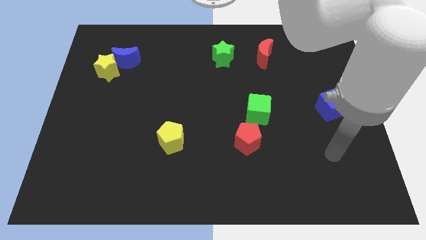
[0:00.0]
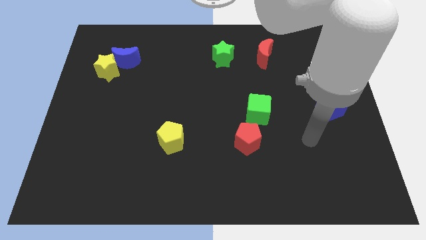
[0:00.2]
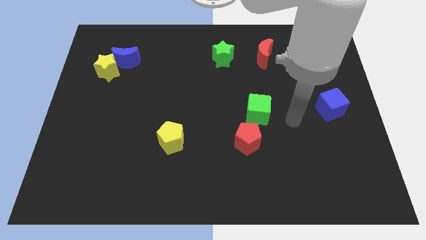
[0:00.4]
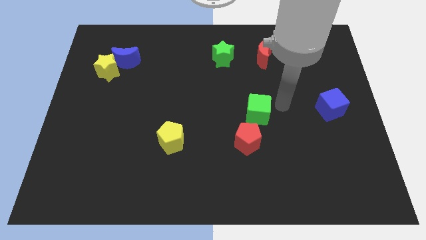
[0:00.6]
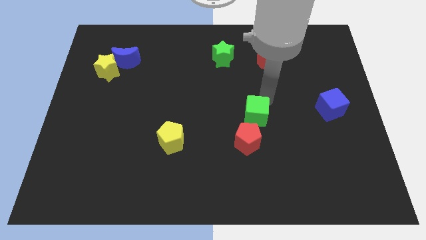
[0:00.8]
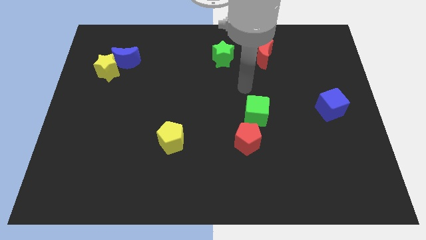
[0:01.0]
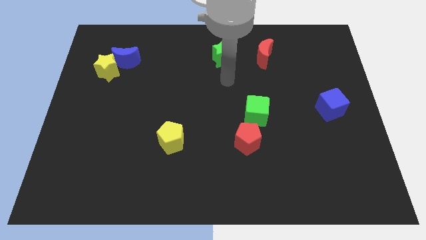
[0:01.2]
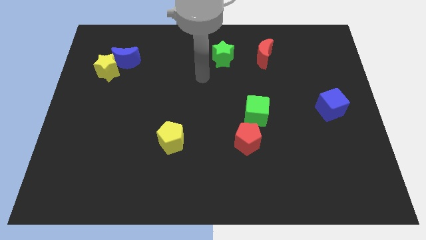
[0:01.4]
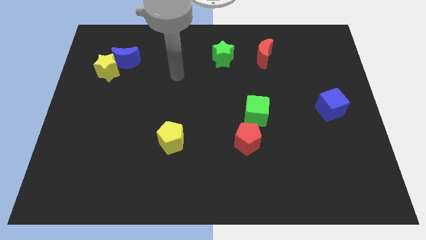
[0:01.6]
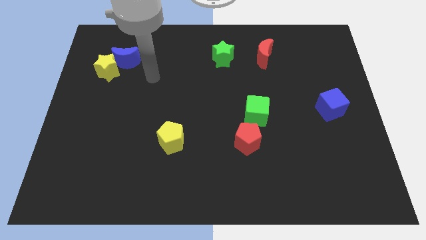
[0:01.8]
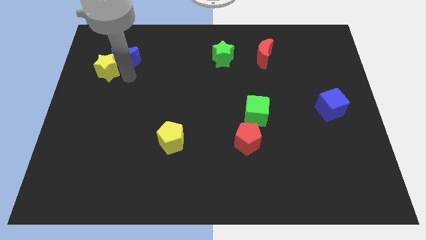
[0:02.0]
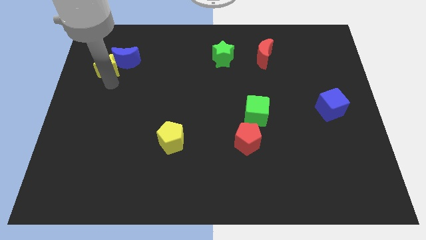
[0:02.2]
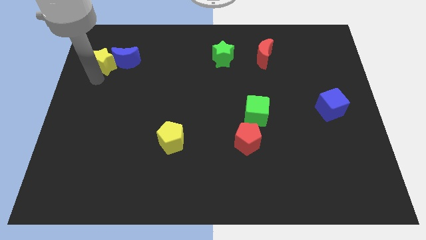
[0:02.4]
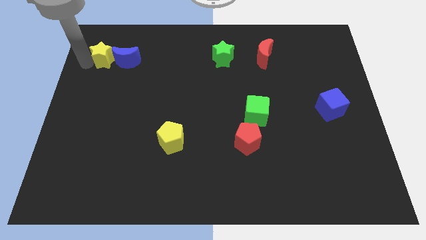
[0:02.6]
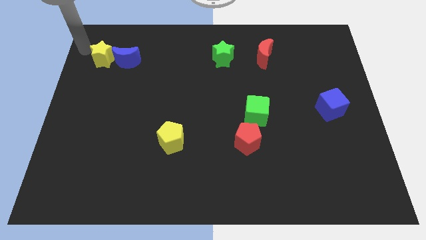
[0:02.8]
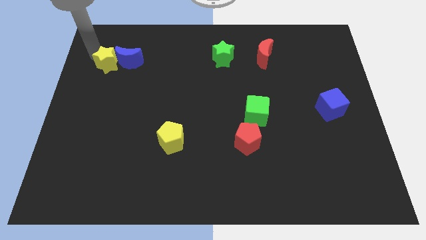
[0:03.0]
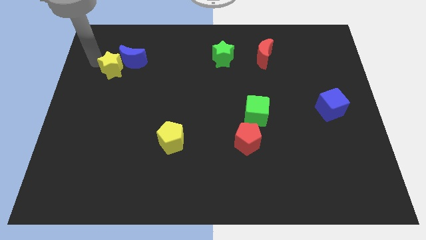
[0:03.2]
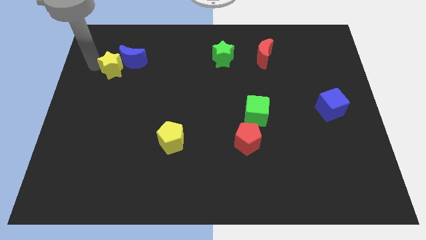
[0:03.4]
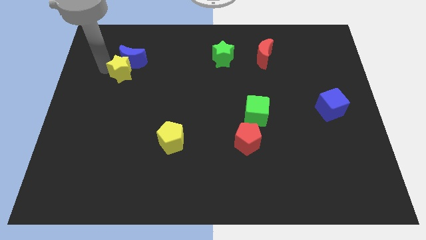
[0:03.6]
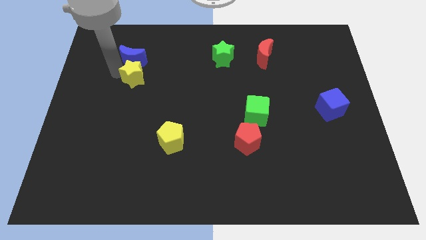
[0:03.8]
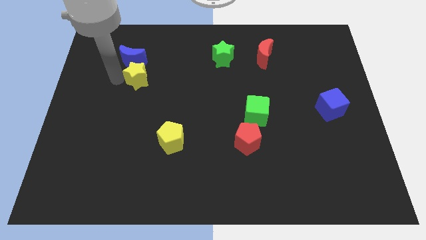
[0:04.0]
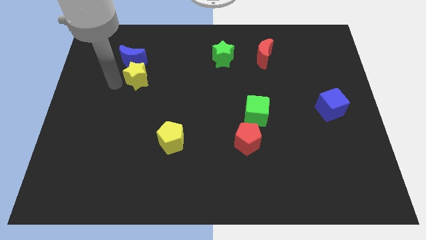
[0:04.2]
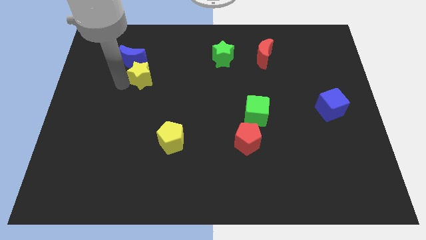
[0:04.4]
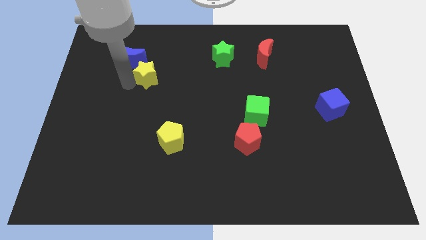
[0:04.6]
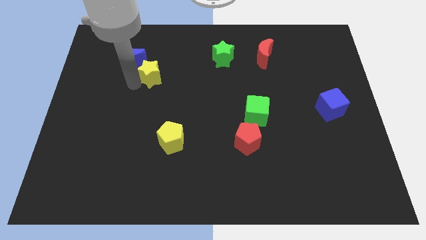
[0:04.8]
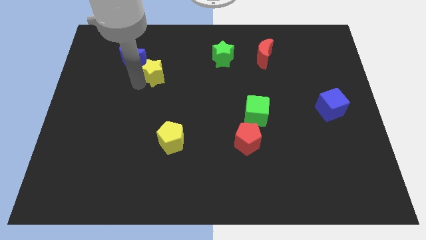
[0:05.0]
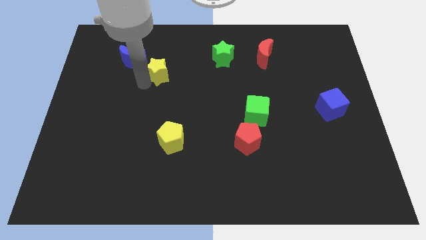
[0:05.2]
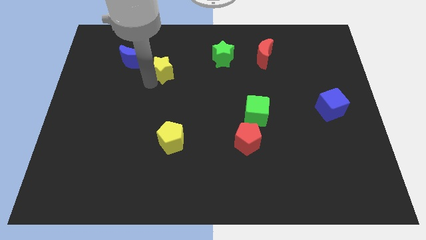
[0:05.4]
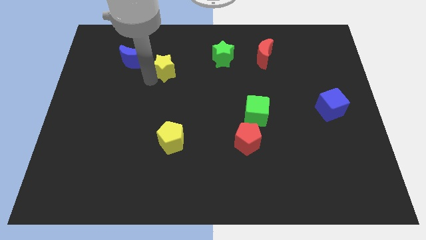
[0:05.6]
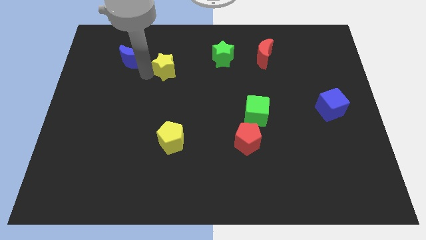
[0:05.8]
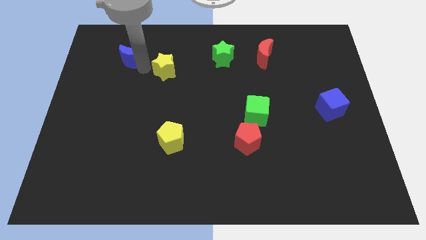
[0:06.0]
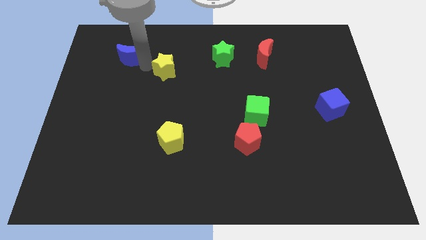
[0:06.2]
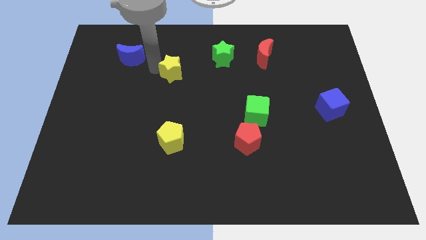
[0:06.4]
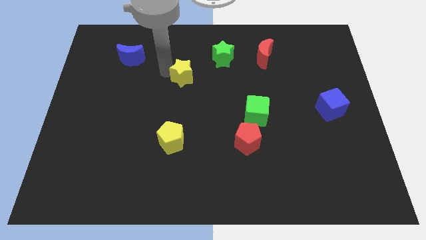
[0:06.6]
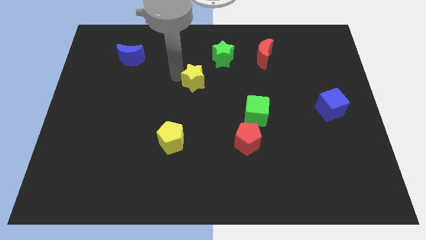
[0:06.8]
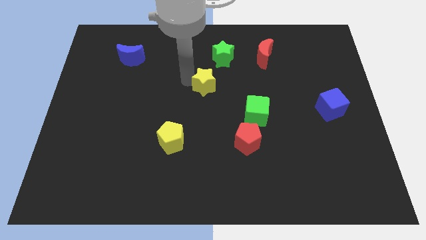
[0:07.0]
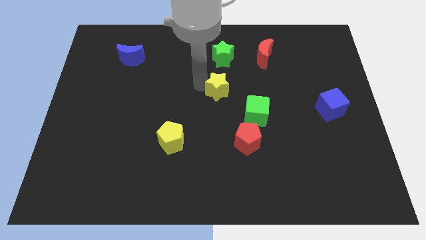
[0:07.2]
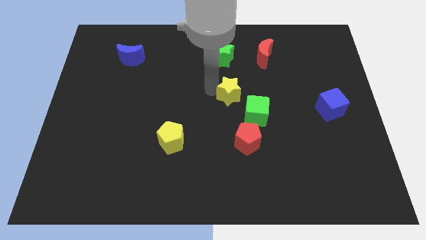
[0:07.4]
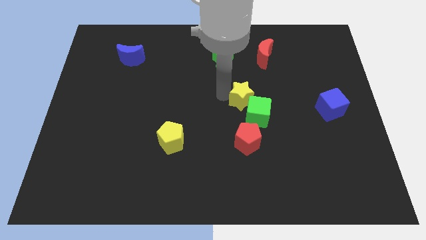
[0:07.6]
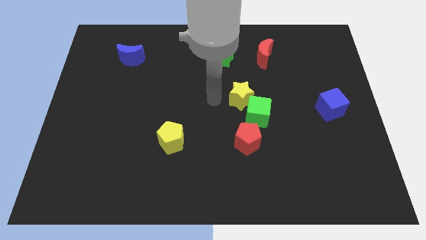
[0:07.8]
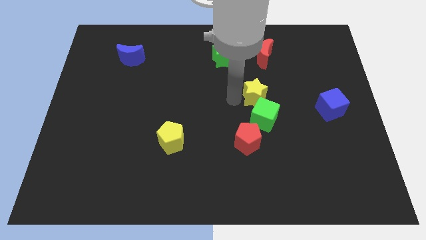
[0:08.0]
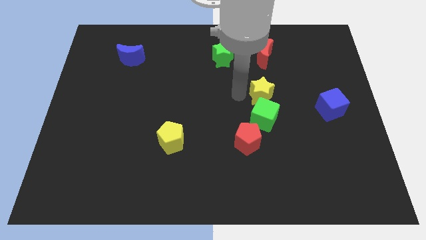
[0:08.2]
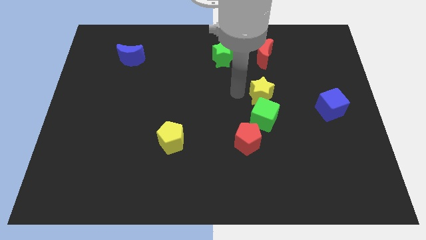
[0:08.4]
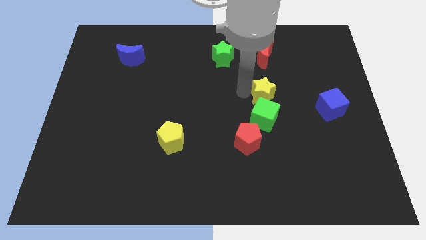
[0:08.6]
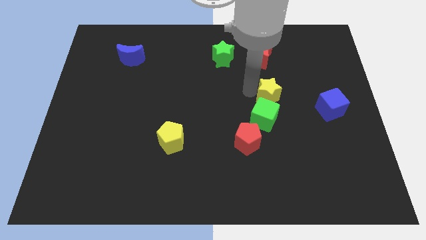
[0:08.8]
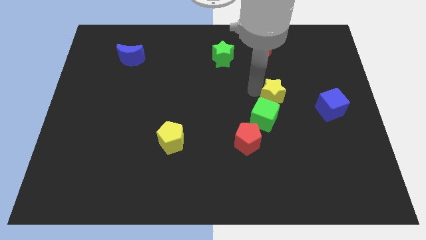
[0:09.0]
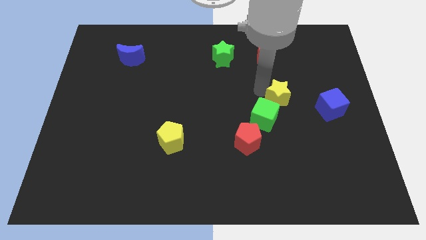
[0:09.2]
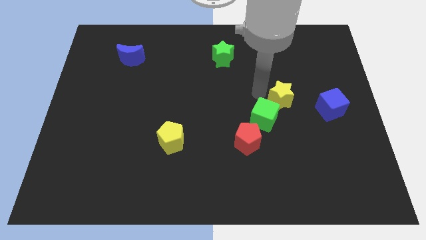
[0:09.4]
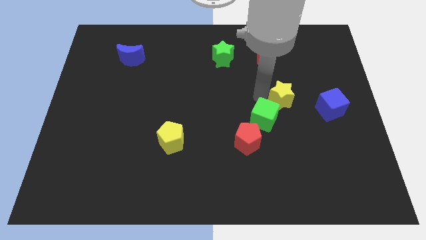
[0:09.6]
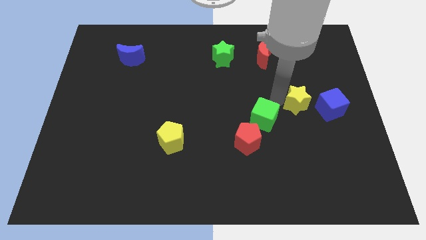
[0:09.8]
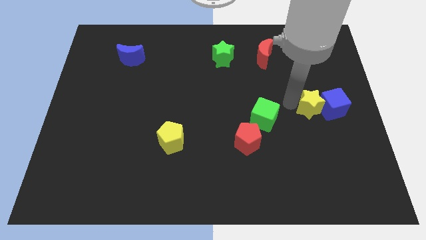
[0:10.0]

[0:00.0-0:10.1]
move the yellow star close to the blue cube

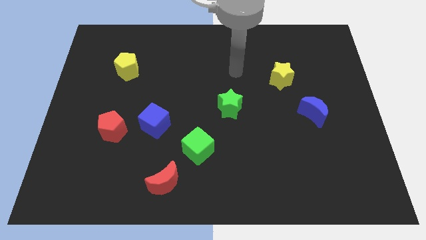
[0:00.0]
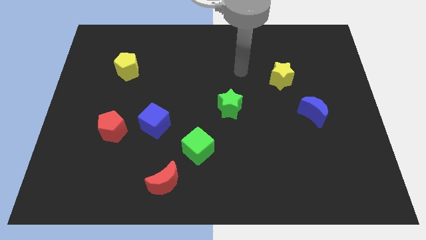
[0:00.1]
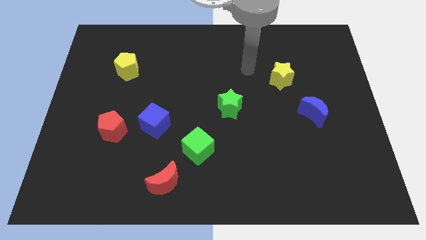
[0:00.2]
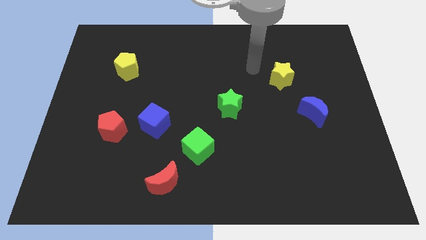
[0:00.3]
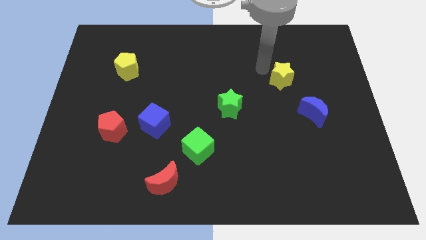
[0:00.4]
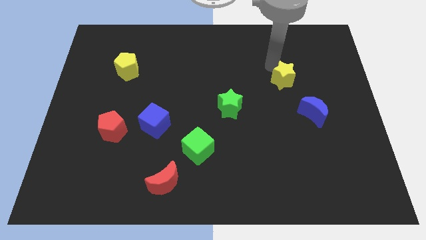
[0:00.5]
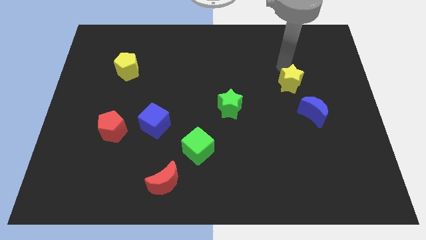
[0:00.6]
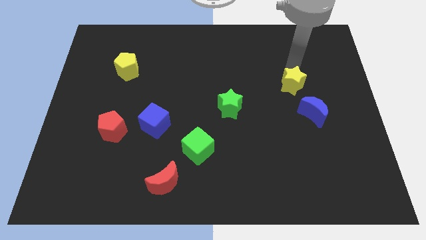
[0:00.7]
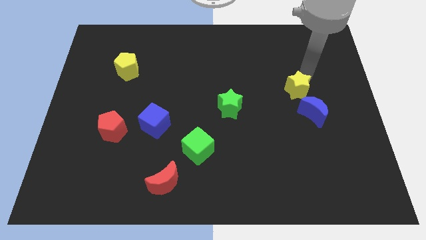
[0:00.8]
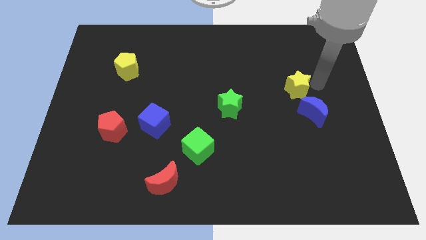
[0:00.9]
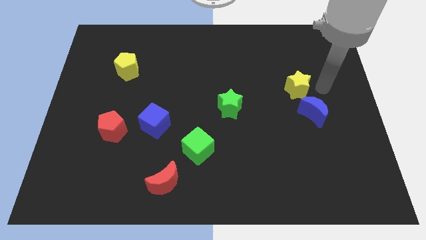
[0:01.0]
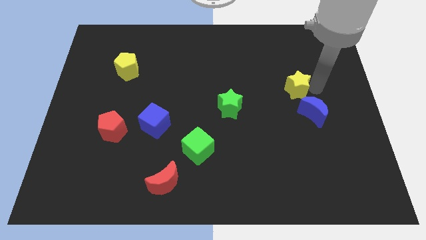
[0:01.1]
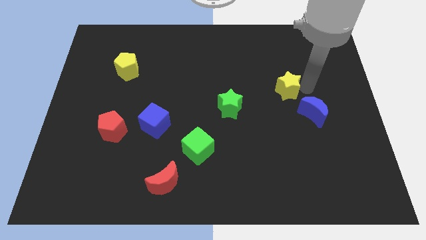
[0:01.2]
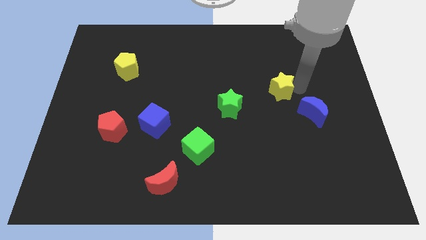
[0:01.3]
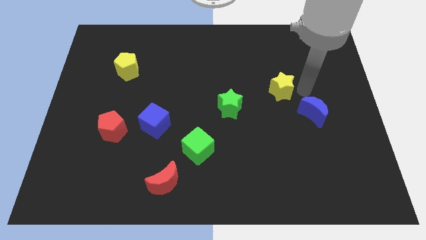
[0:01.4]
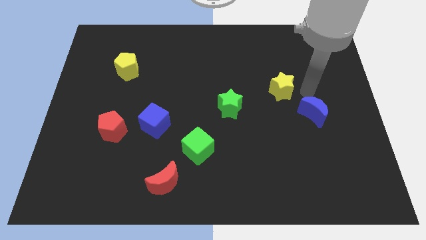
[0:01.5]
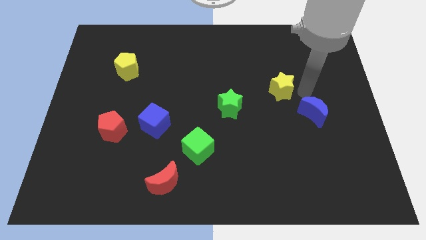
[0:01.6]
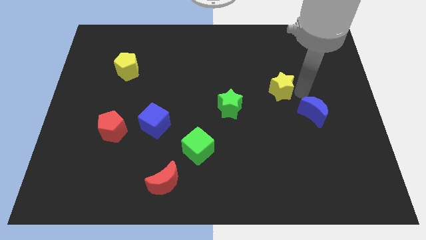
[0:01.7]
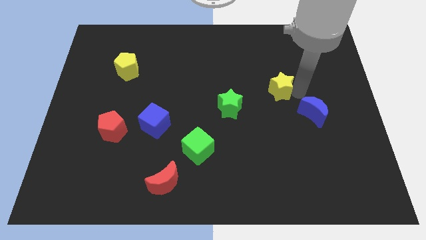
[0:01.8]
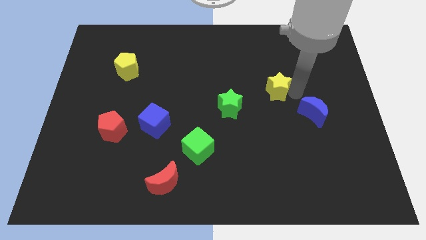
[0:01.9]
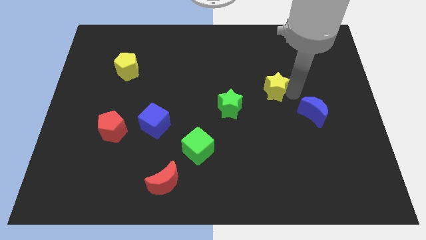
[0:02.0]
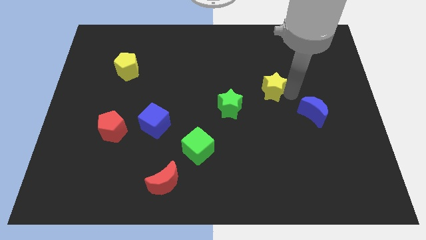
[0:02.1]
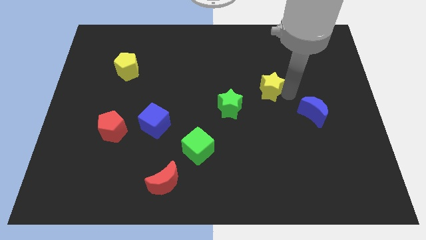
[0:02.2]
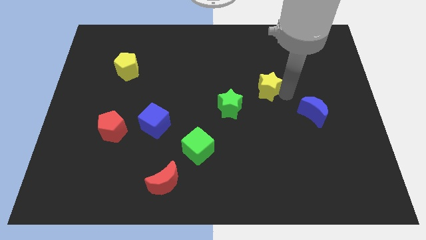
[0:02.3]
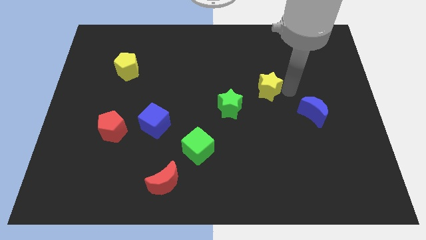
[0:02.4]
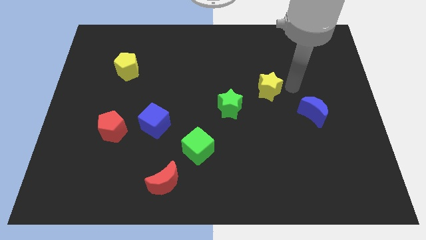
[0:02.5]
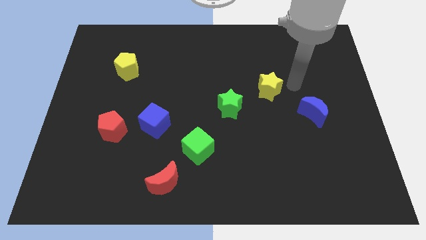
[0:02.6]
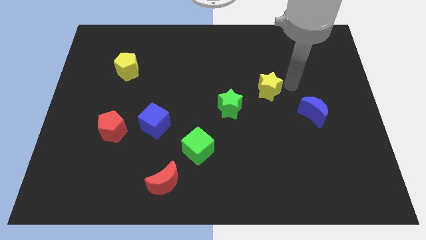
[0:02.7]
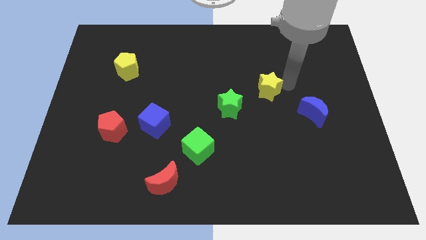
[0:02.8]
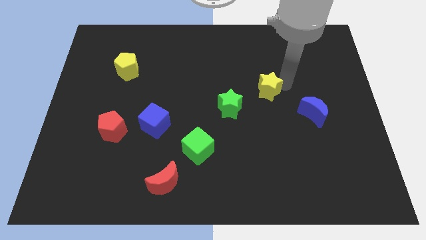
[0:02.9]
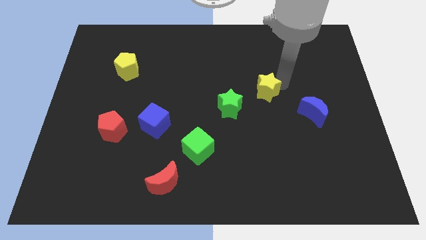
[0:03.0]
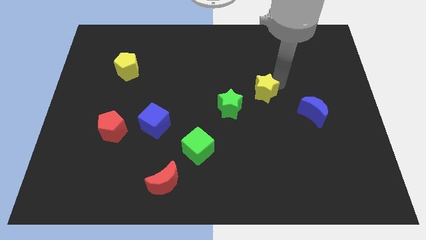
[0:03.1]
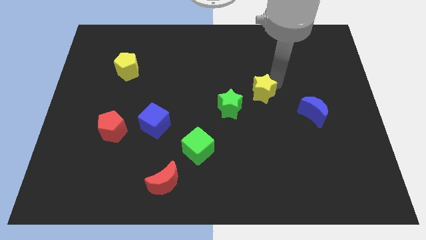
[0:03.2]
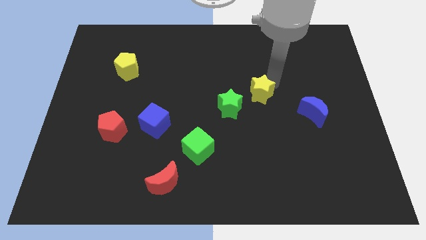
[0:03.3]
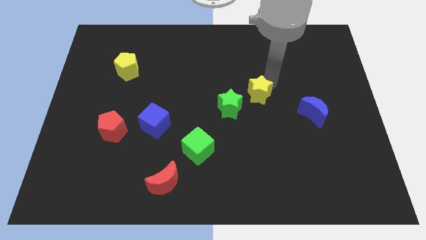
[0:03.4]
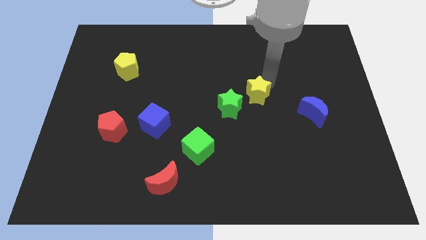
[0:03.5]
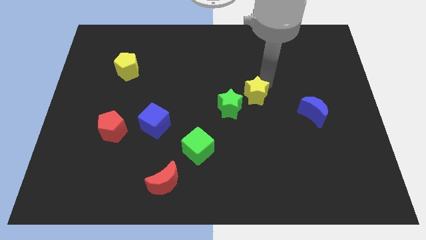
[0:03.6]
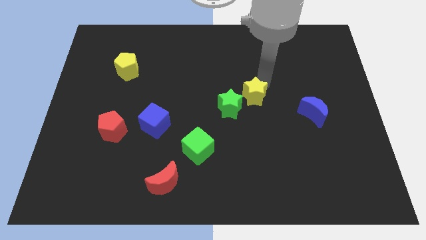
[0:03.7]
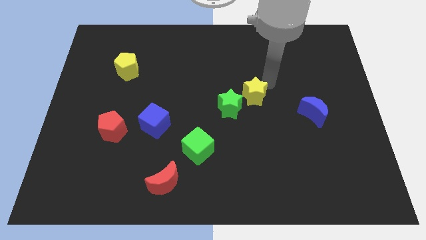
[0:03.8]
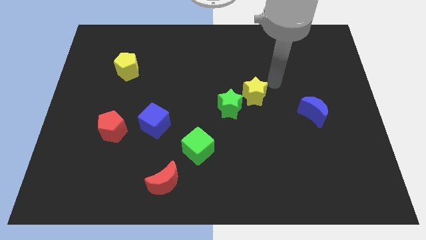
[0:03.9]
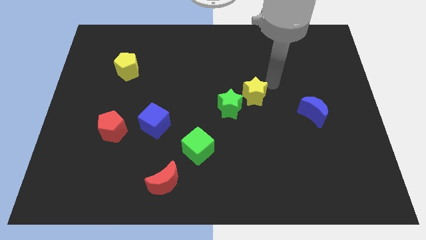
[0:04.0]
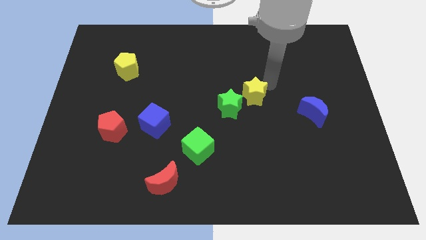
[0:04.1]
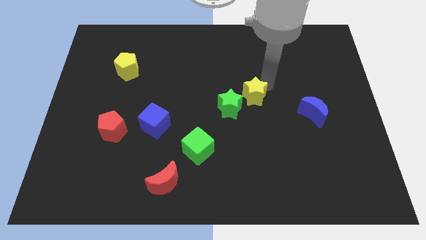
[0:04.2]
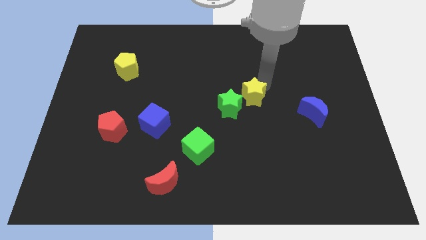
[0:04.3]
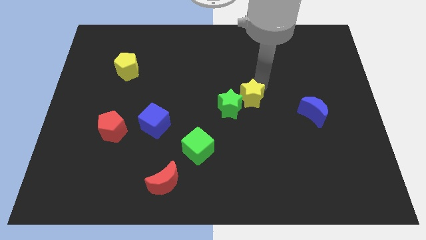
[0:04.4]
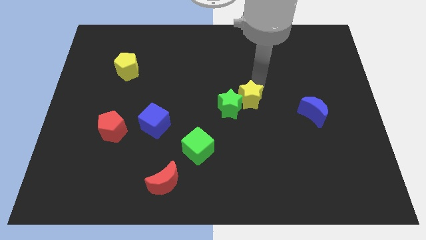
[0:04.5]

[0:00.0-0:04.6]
push the yellow star towards the green star
